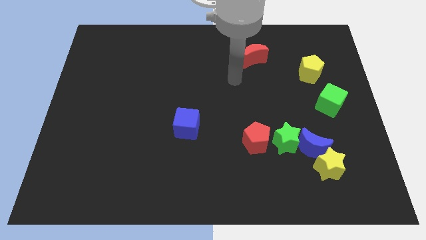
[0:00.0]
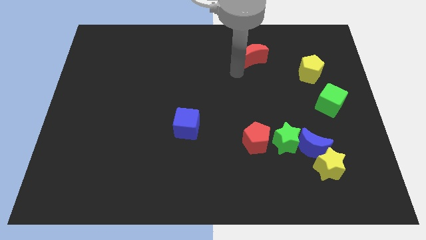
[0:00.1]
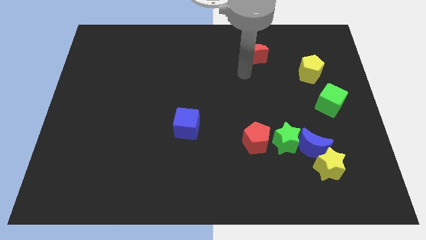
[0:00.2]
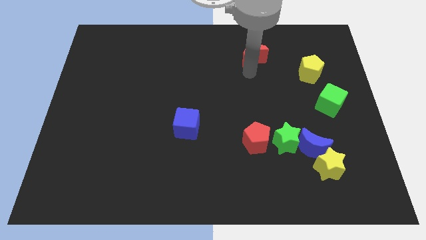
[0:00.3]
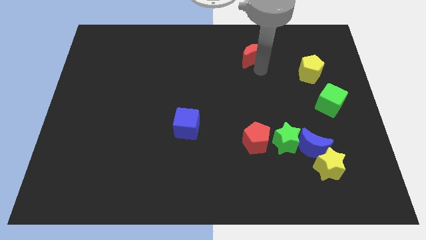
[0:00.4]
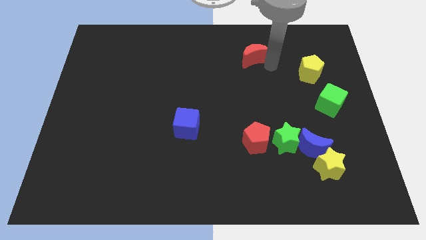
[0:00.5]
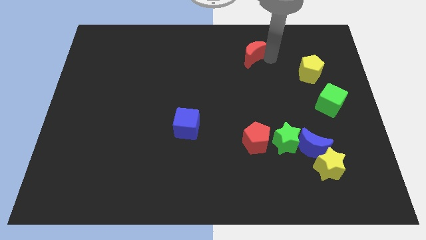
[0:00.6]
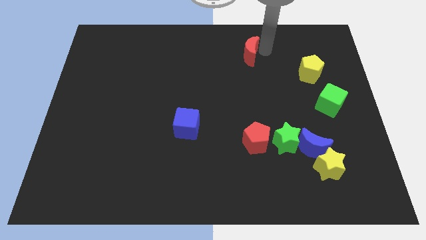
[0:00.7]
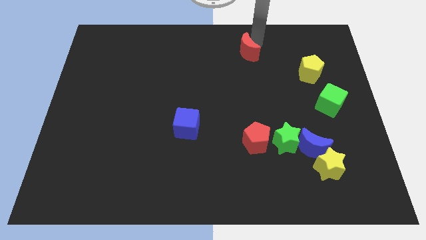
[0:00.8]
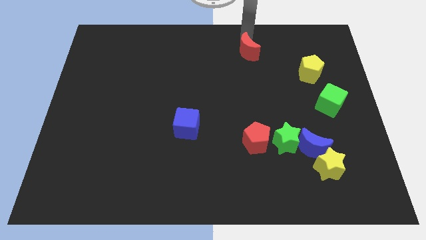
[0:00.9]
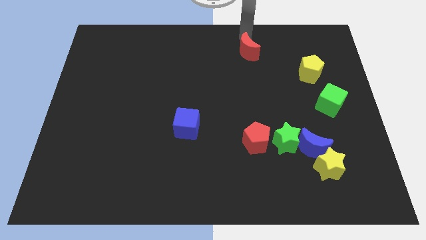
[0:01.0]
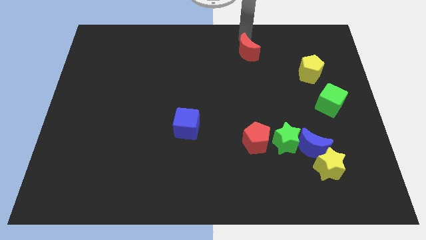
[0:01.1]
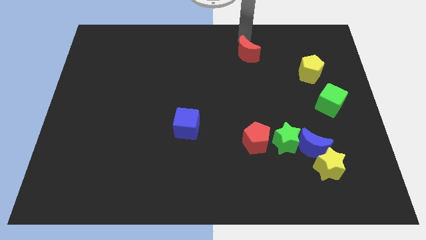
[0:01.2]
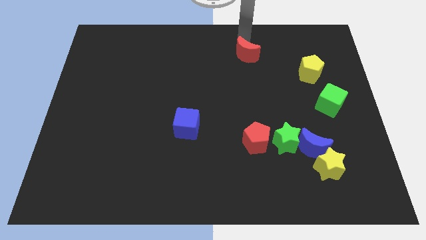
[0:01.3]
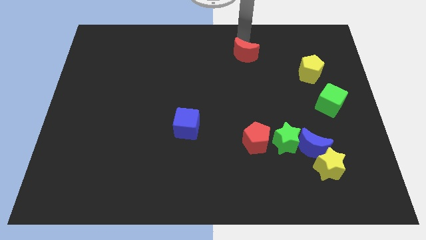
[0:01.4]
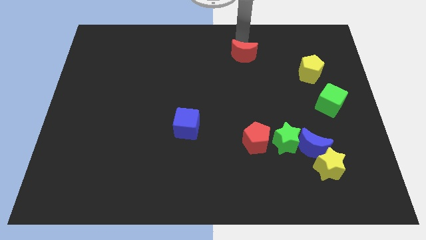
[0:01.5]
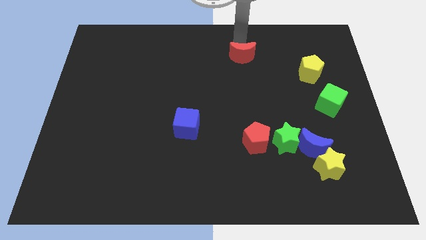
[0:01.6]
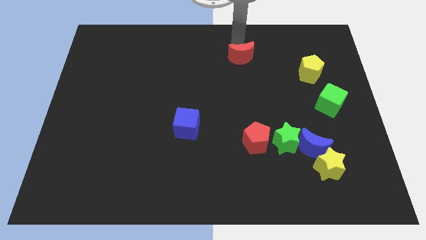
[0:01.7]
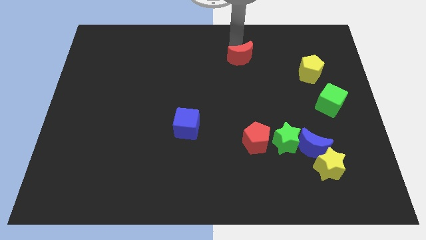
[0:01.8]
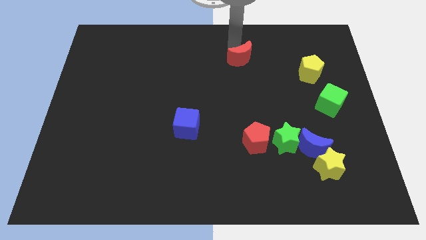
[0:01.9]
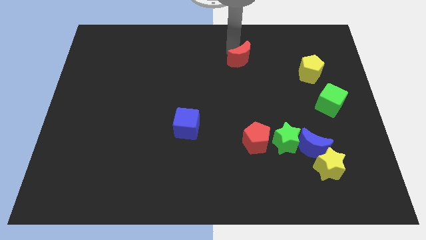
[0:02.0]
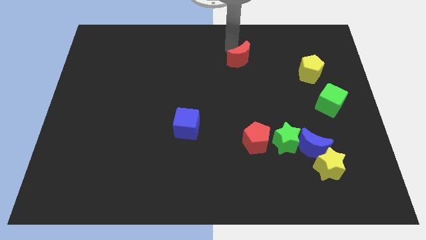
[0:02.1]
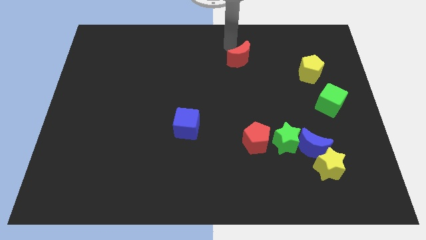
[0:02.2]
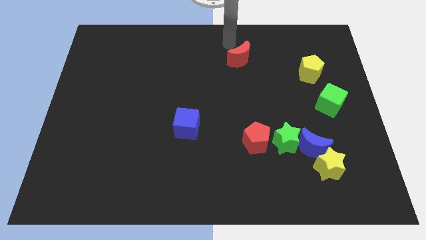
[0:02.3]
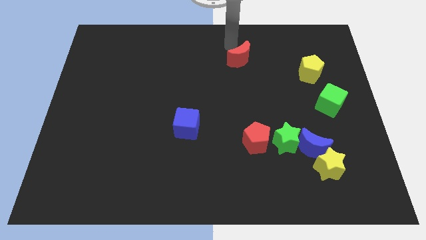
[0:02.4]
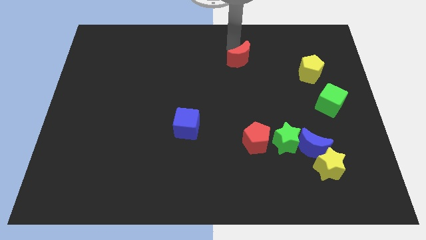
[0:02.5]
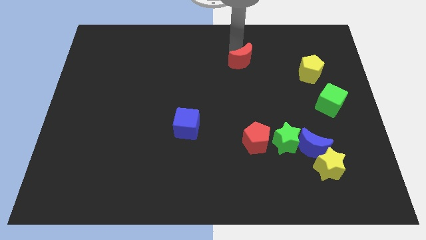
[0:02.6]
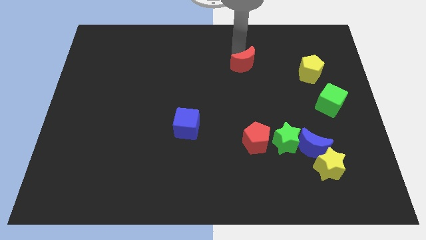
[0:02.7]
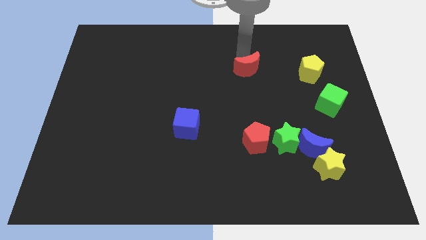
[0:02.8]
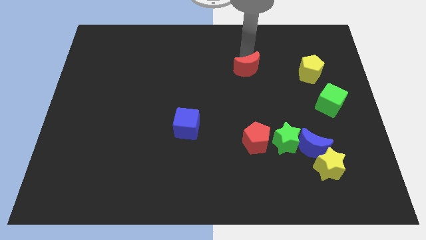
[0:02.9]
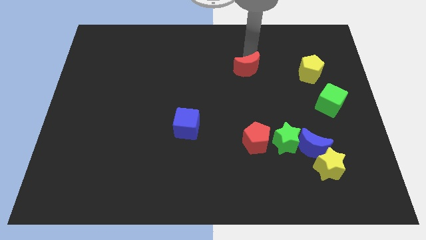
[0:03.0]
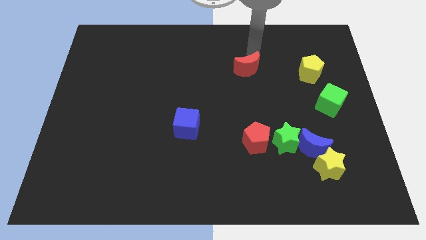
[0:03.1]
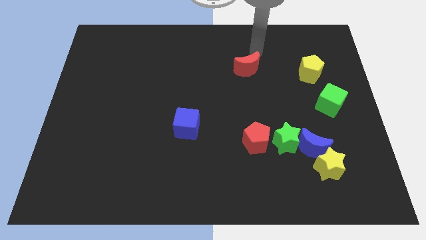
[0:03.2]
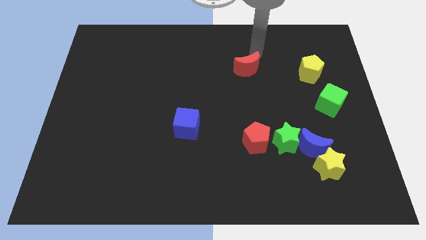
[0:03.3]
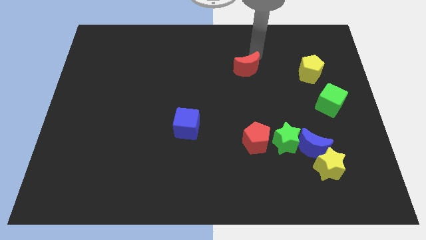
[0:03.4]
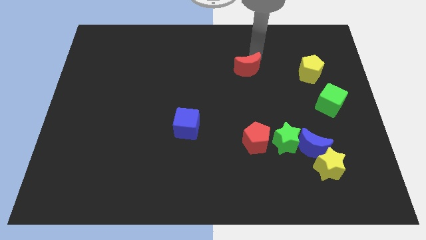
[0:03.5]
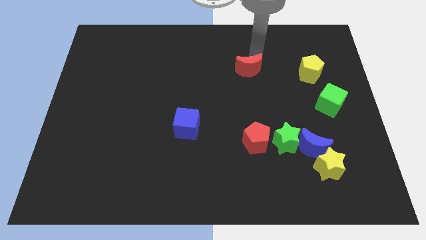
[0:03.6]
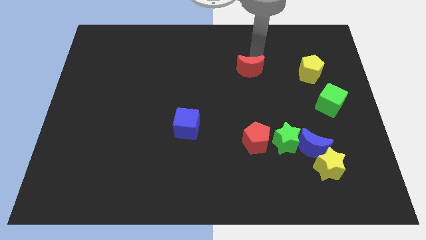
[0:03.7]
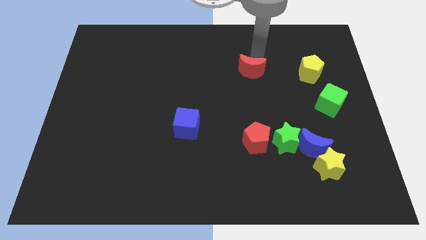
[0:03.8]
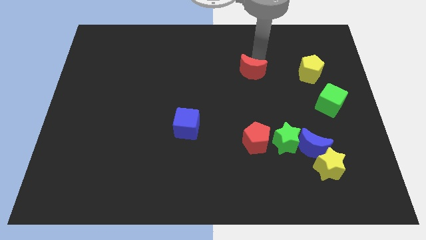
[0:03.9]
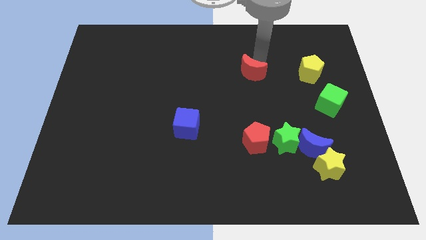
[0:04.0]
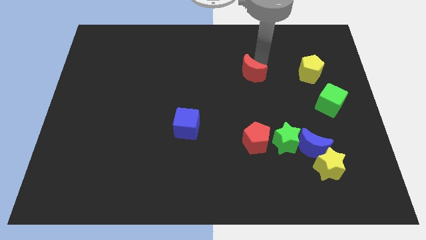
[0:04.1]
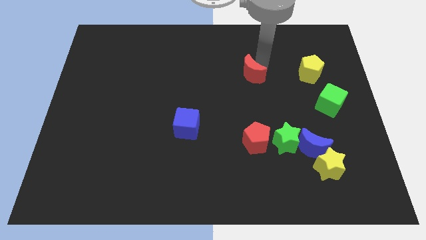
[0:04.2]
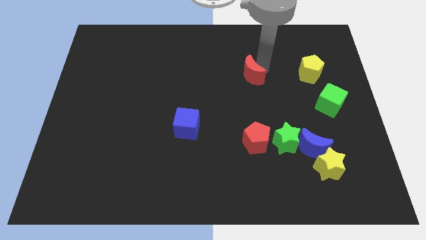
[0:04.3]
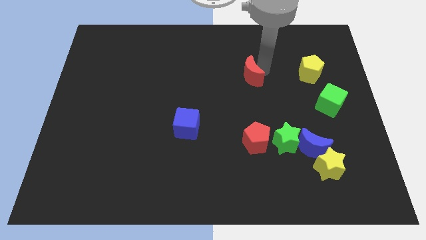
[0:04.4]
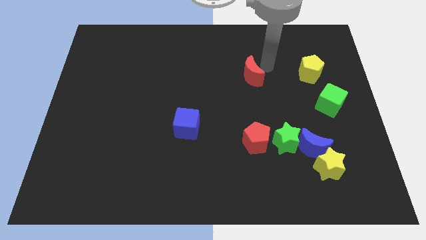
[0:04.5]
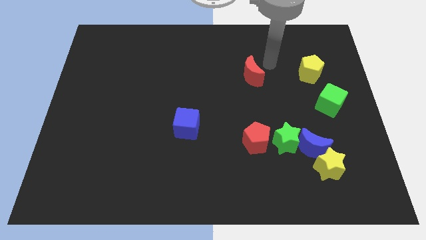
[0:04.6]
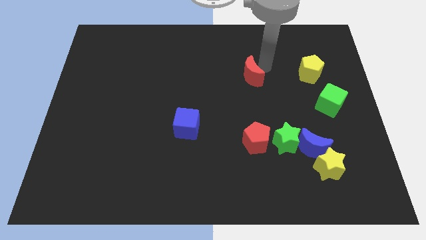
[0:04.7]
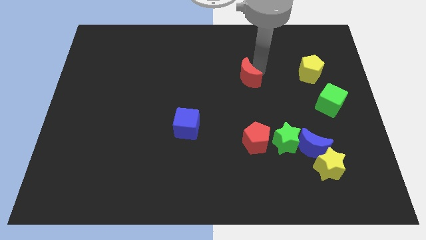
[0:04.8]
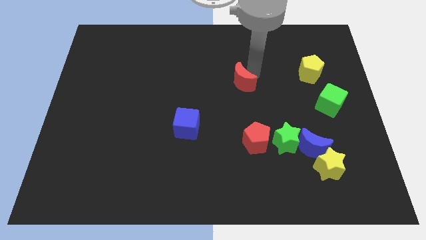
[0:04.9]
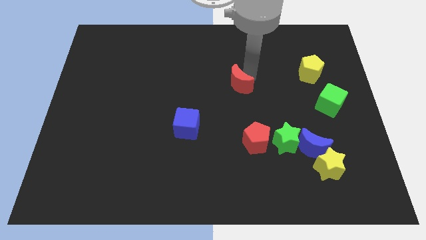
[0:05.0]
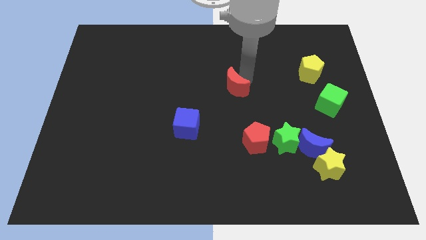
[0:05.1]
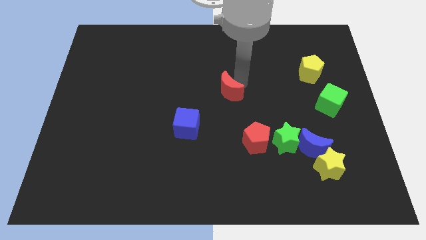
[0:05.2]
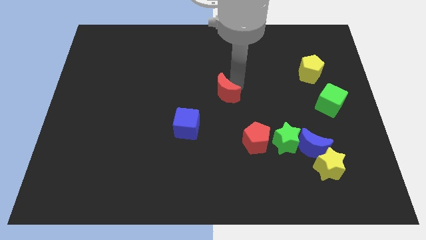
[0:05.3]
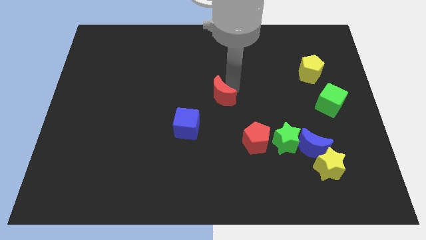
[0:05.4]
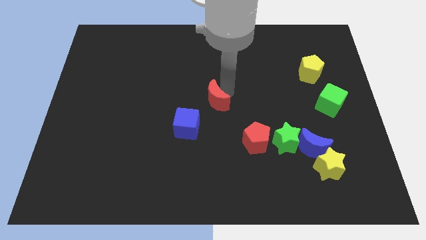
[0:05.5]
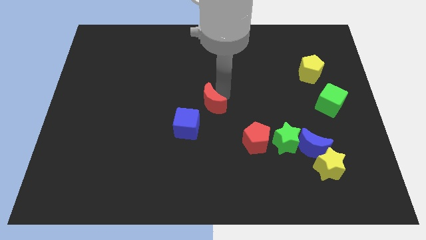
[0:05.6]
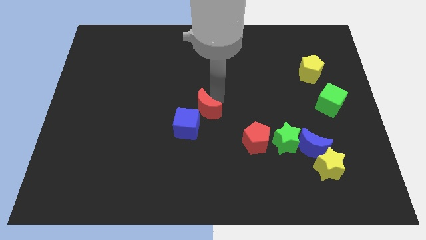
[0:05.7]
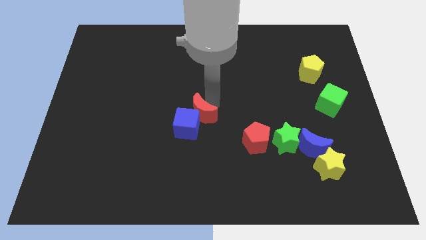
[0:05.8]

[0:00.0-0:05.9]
move the red moon towards the blue cube

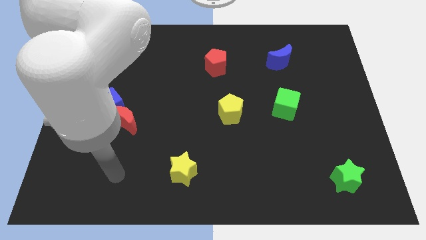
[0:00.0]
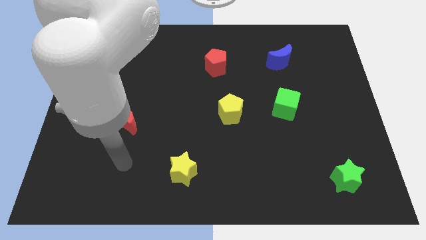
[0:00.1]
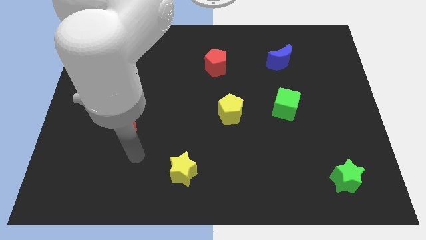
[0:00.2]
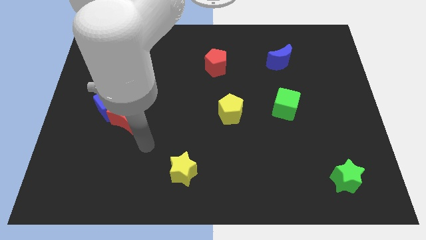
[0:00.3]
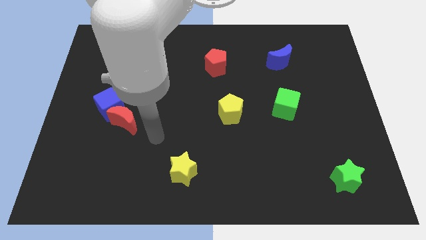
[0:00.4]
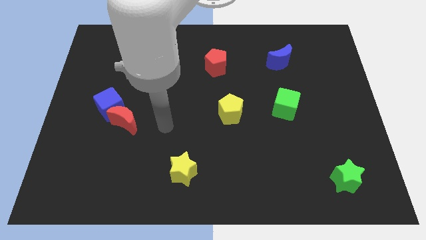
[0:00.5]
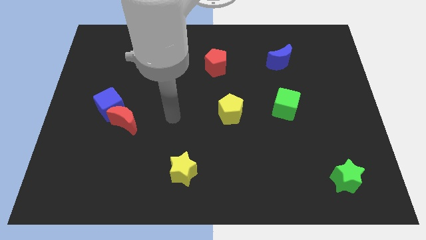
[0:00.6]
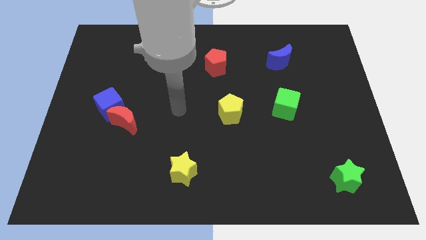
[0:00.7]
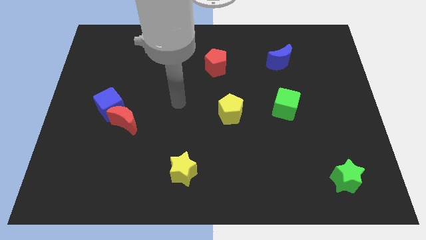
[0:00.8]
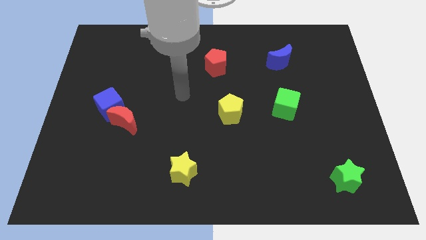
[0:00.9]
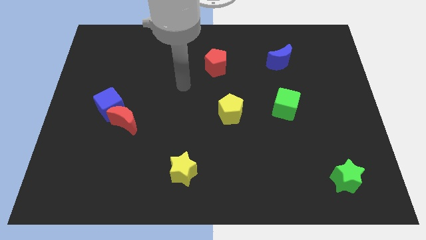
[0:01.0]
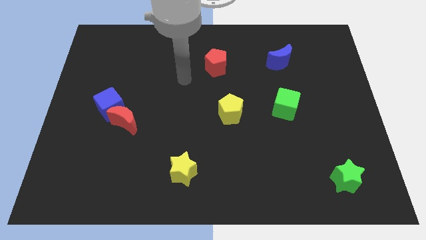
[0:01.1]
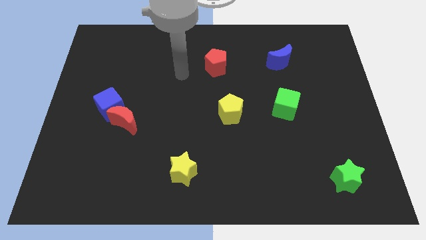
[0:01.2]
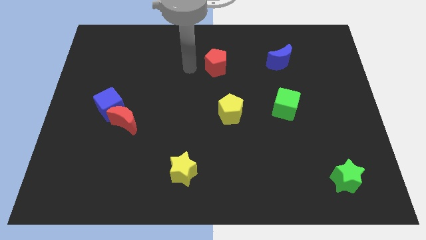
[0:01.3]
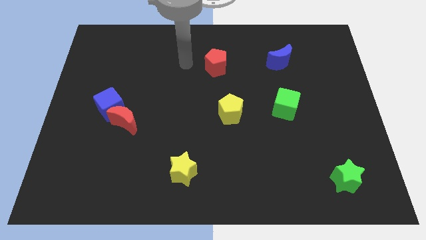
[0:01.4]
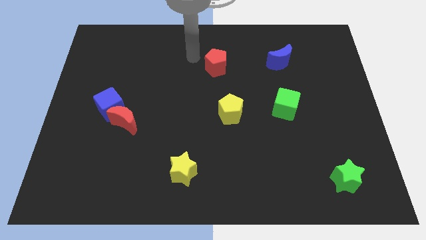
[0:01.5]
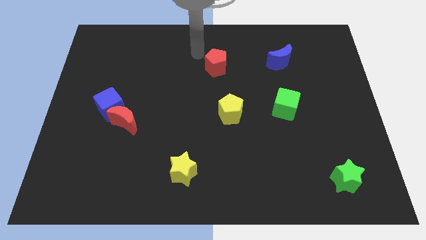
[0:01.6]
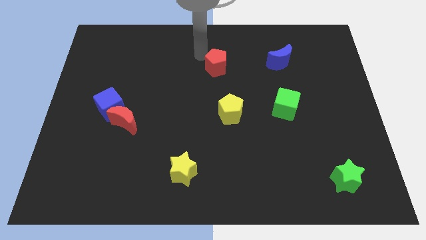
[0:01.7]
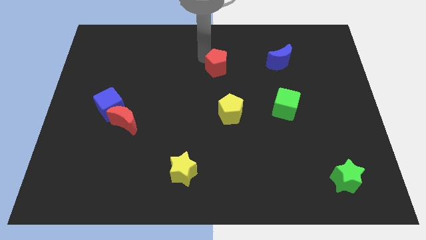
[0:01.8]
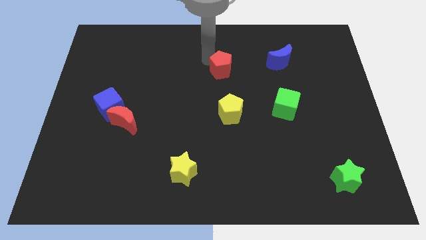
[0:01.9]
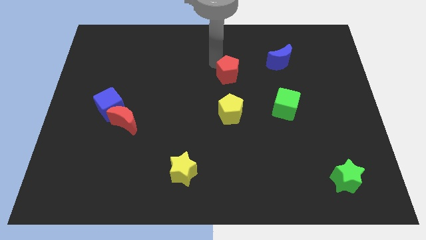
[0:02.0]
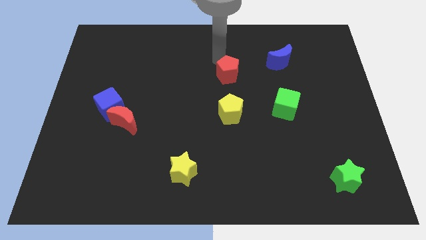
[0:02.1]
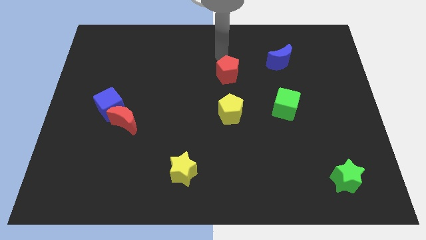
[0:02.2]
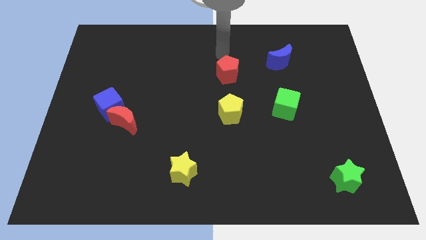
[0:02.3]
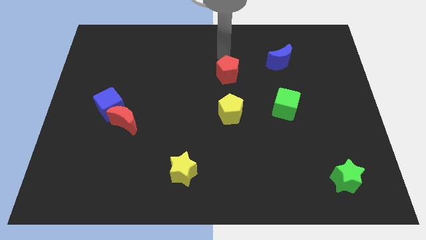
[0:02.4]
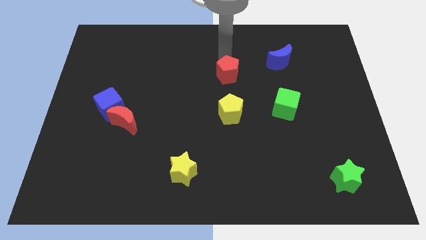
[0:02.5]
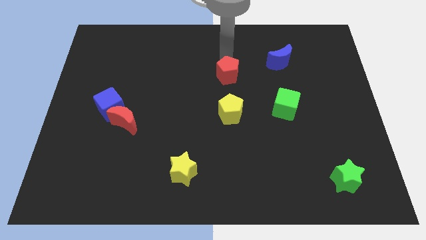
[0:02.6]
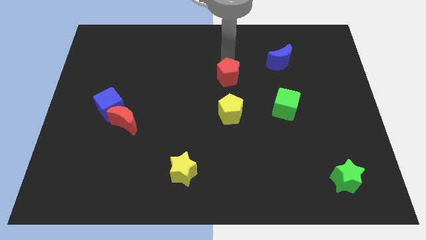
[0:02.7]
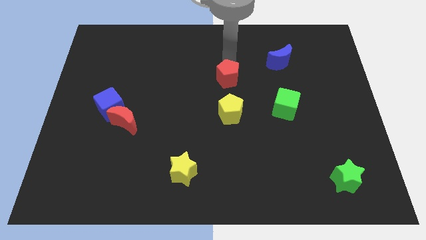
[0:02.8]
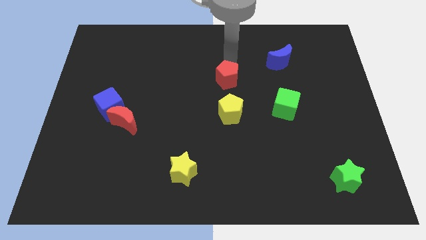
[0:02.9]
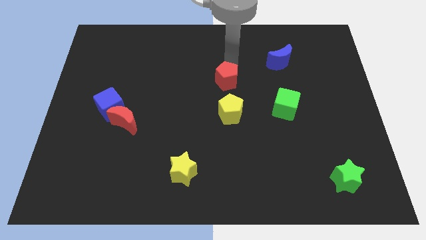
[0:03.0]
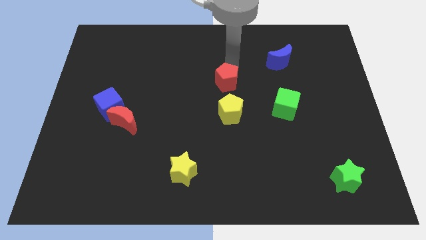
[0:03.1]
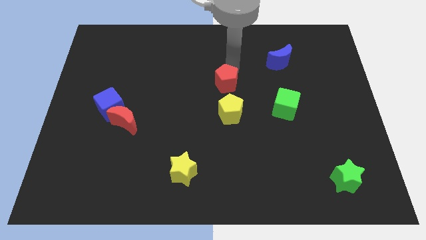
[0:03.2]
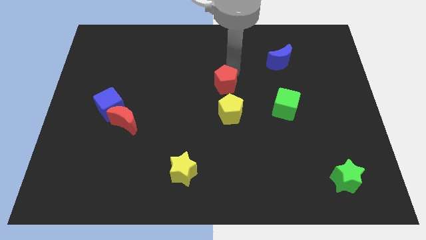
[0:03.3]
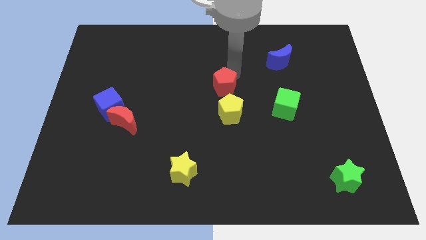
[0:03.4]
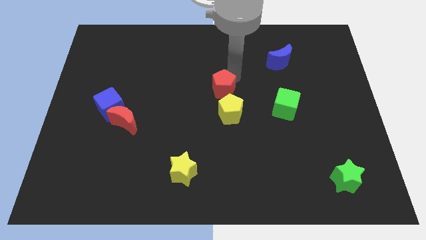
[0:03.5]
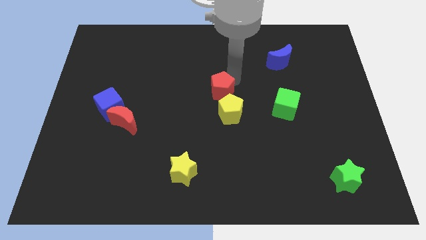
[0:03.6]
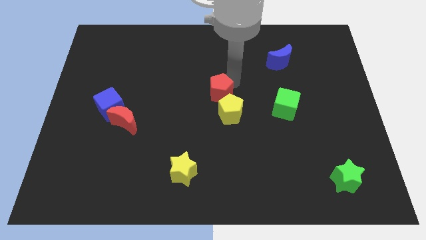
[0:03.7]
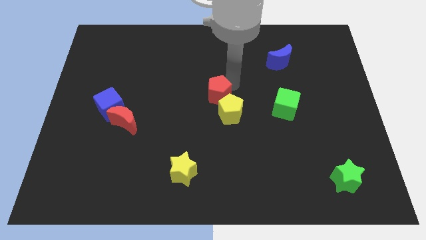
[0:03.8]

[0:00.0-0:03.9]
push the red pentagon close to the yellow pentagon
